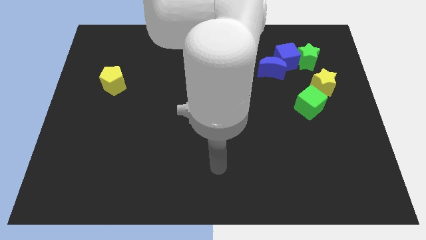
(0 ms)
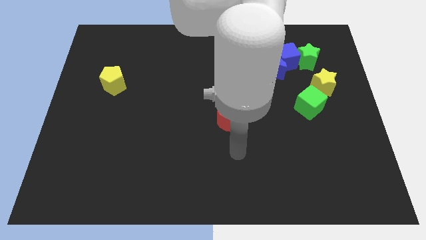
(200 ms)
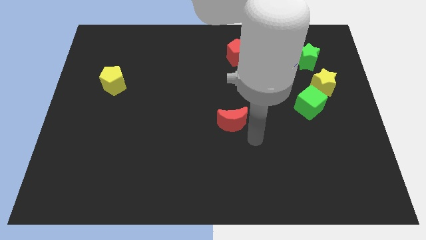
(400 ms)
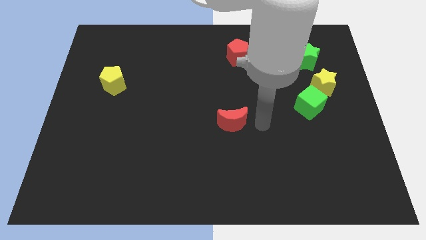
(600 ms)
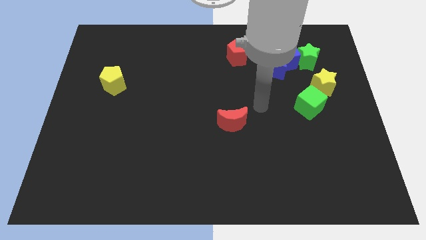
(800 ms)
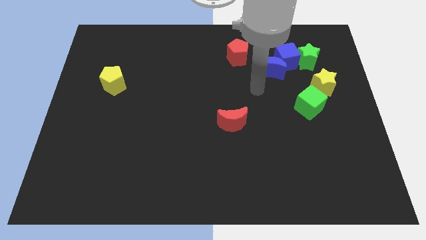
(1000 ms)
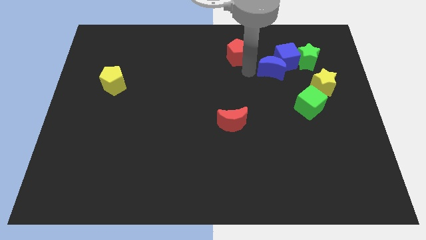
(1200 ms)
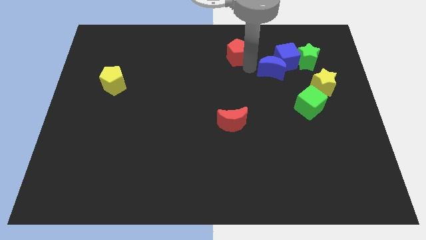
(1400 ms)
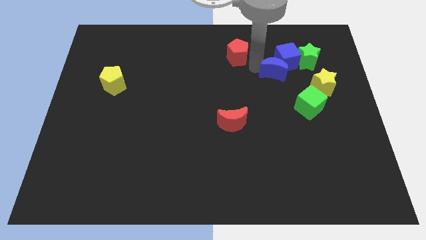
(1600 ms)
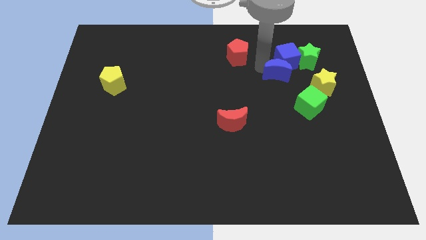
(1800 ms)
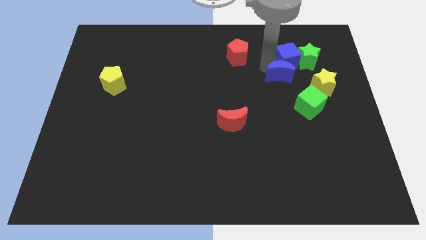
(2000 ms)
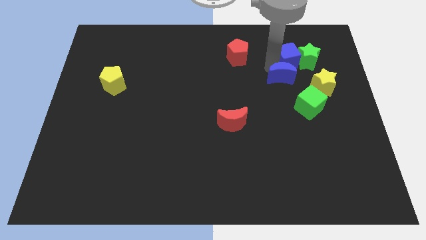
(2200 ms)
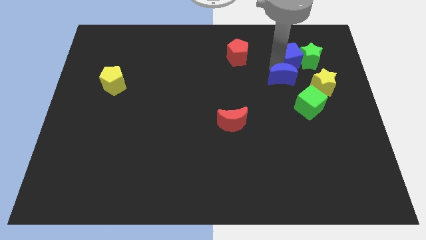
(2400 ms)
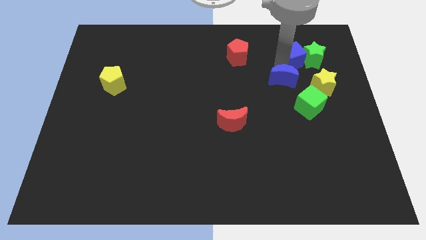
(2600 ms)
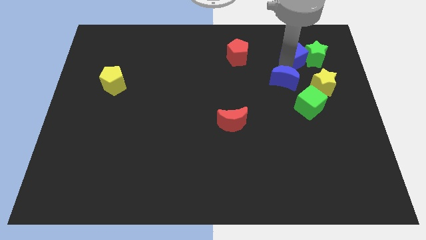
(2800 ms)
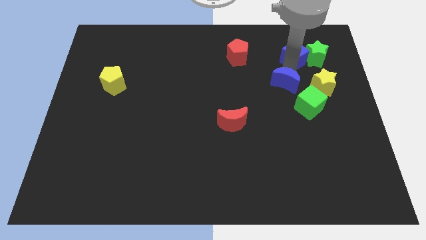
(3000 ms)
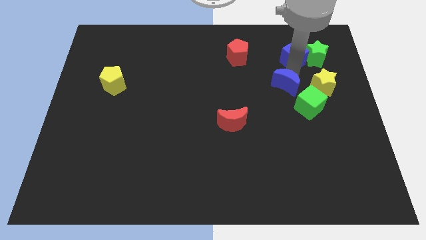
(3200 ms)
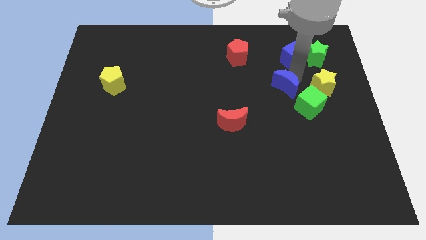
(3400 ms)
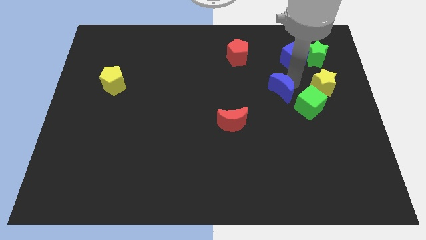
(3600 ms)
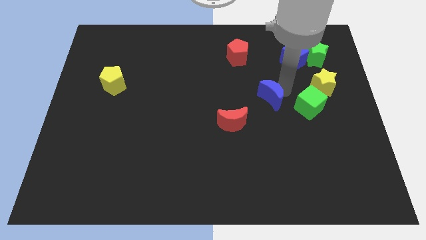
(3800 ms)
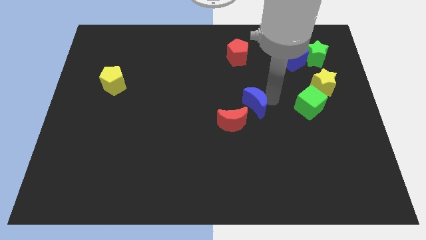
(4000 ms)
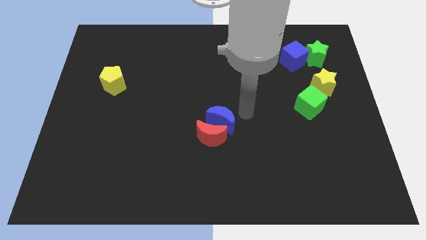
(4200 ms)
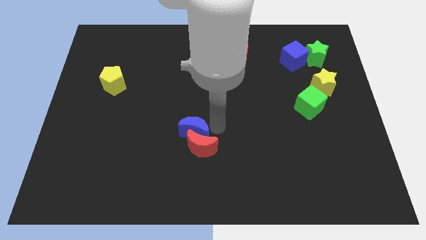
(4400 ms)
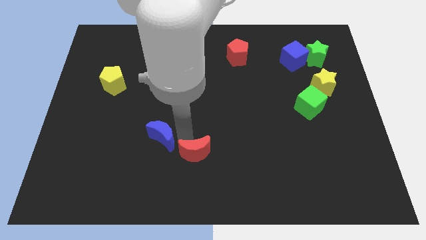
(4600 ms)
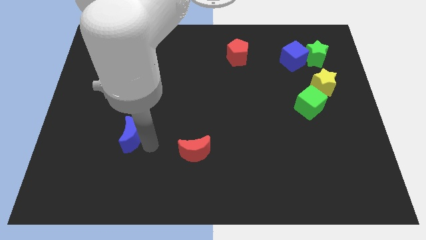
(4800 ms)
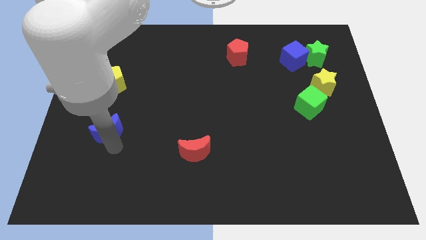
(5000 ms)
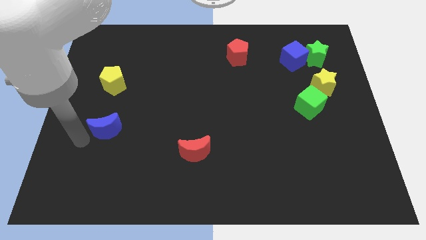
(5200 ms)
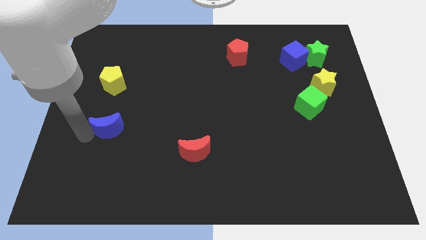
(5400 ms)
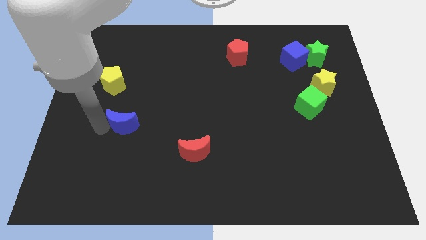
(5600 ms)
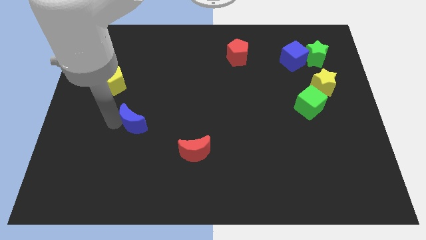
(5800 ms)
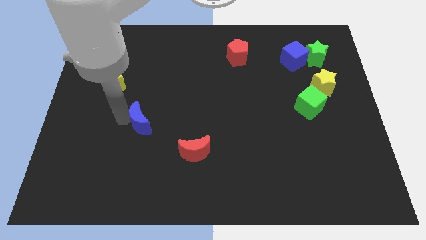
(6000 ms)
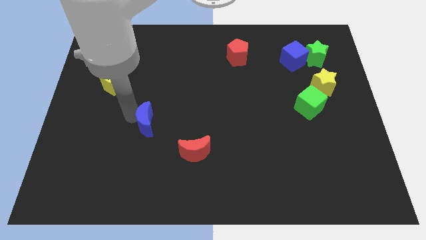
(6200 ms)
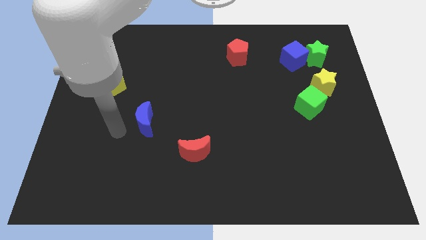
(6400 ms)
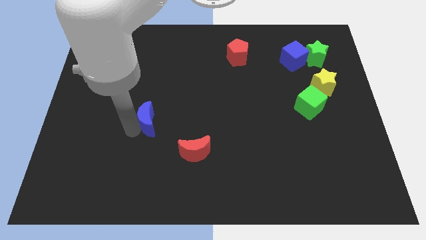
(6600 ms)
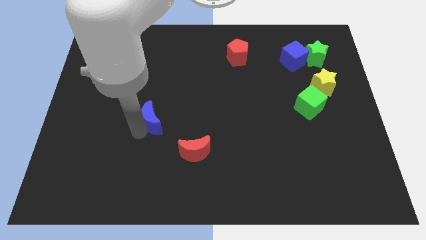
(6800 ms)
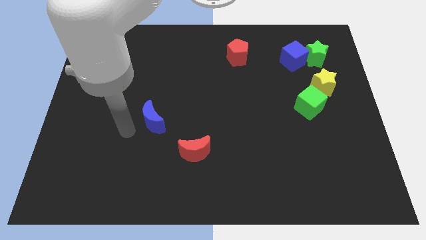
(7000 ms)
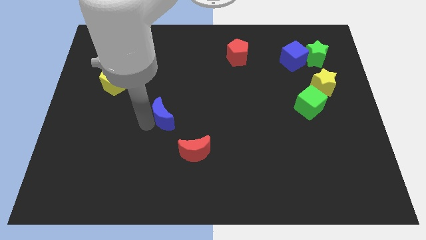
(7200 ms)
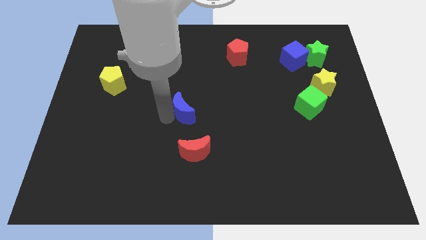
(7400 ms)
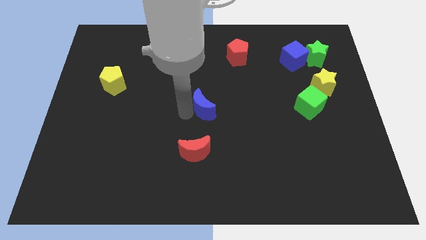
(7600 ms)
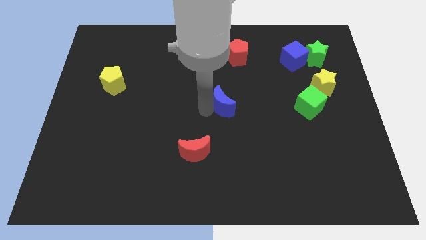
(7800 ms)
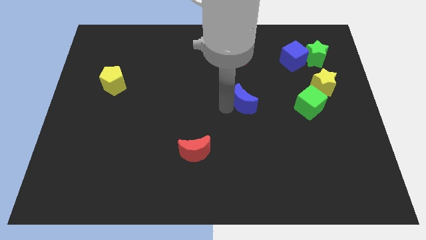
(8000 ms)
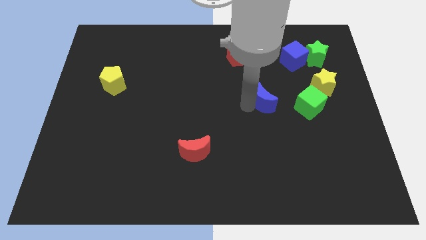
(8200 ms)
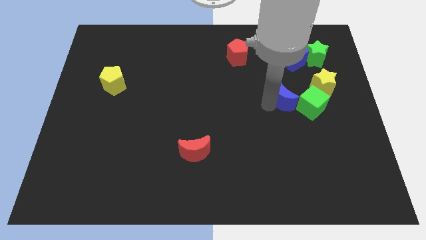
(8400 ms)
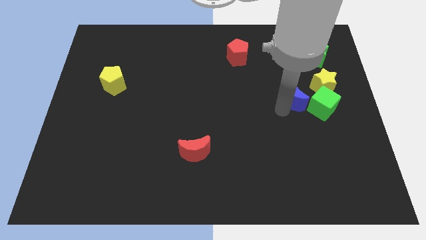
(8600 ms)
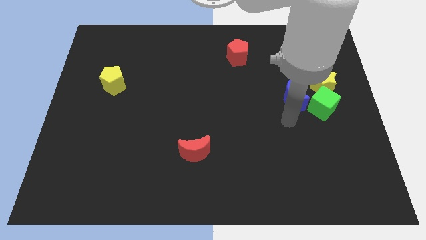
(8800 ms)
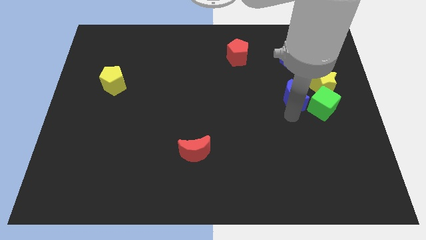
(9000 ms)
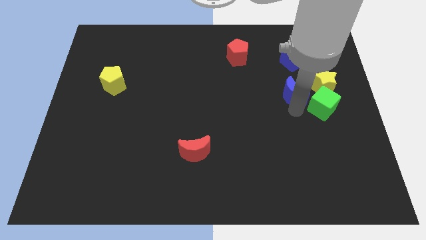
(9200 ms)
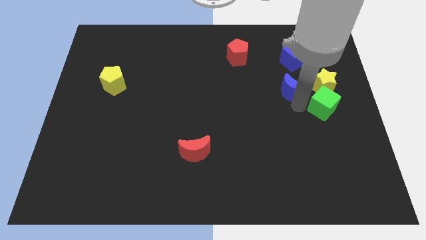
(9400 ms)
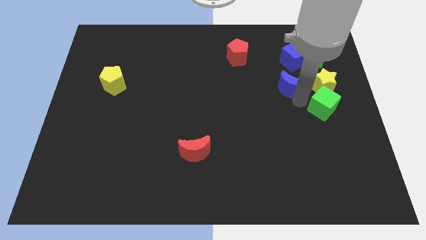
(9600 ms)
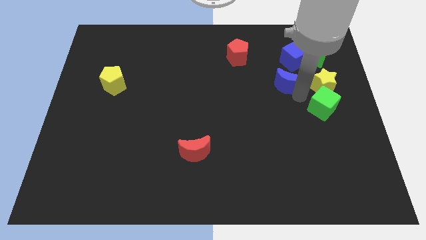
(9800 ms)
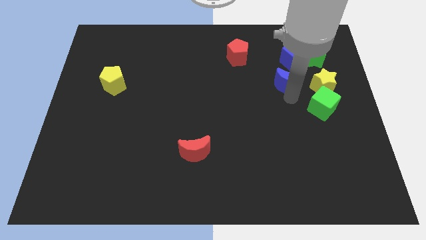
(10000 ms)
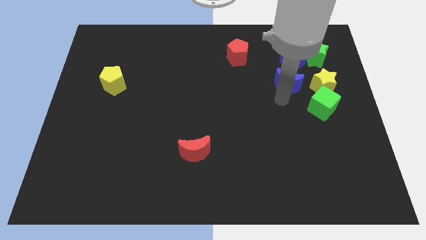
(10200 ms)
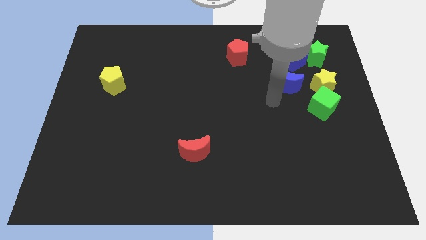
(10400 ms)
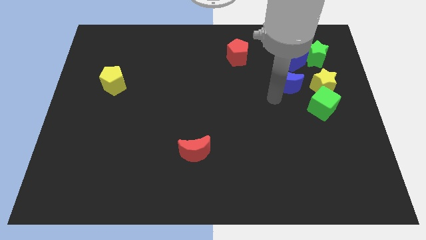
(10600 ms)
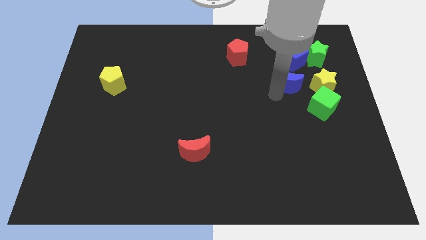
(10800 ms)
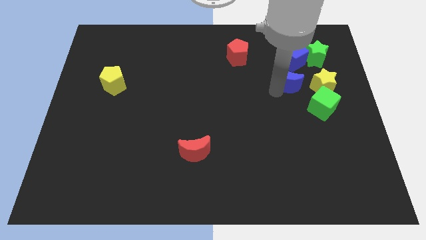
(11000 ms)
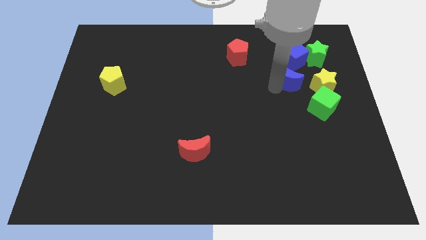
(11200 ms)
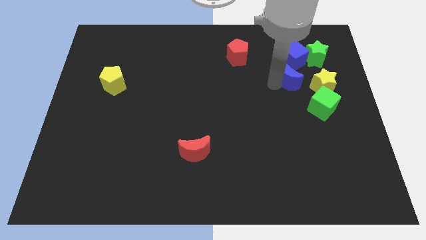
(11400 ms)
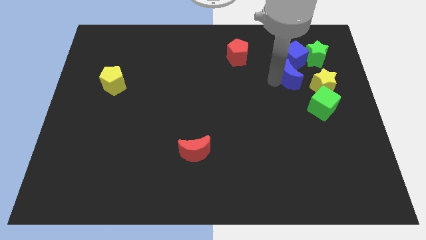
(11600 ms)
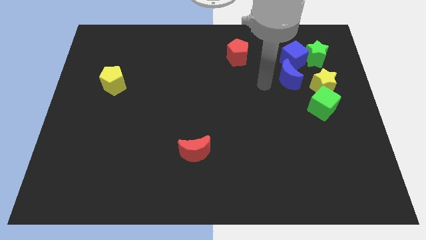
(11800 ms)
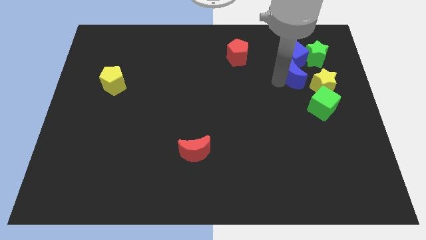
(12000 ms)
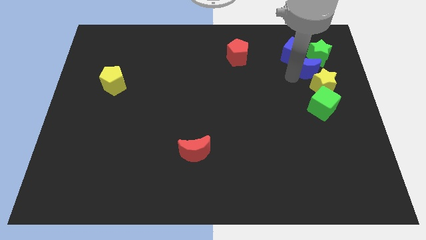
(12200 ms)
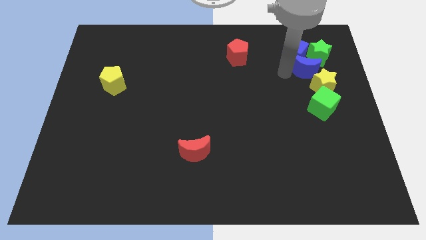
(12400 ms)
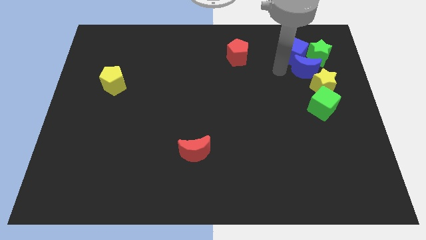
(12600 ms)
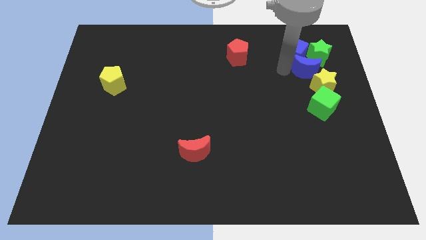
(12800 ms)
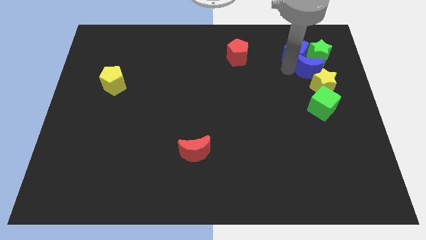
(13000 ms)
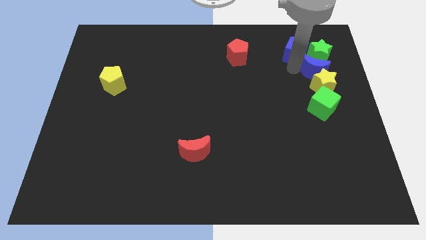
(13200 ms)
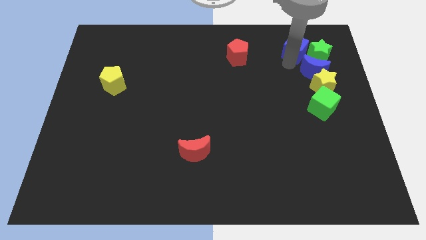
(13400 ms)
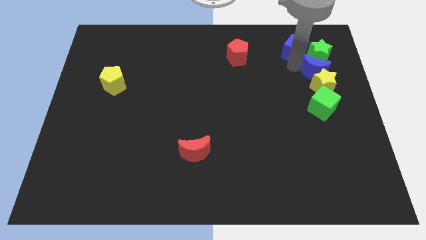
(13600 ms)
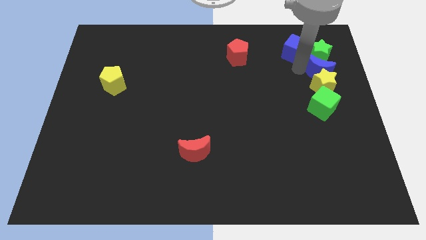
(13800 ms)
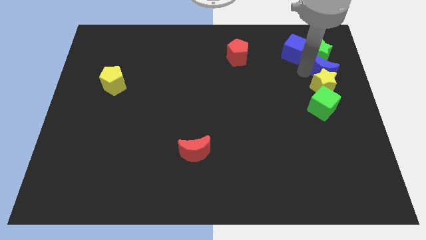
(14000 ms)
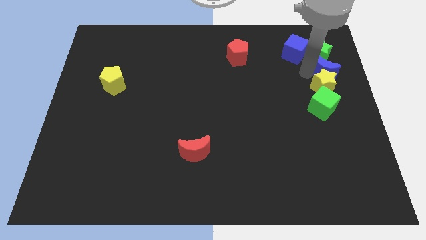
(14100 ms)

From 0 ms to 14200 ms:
push the blue moon to the center right
